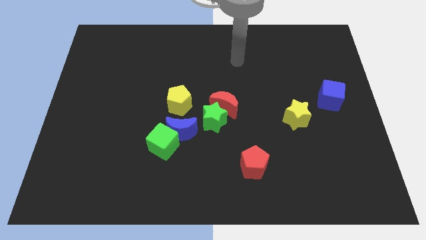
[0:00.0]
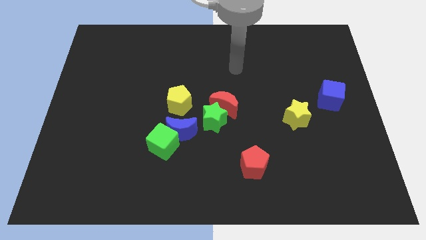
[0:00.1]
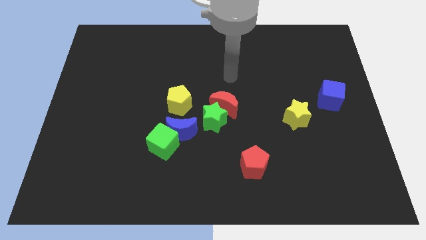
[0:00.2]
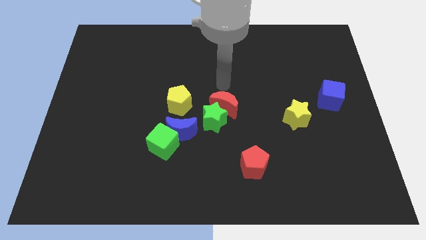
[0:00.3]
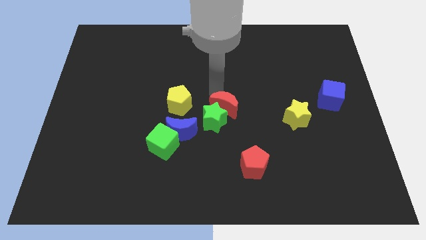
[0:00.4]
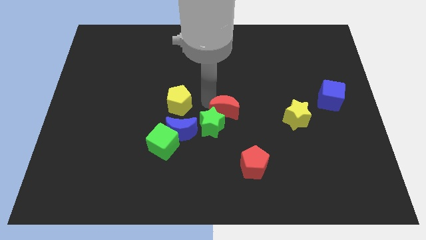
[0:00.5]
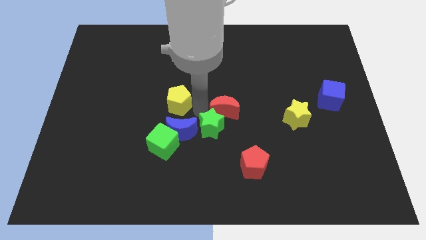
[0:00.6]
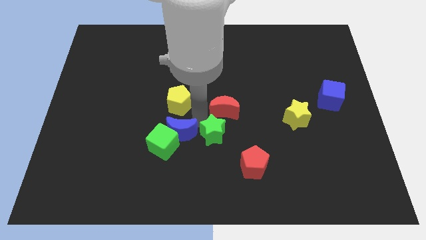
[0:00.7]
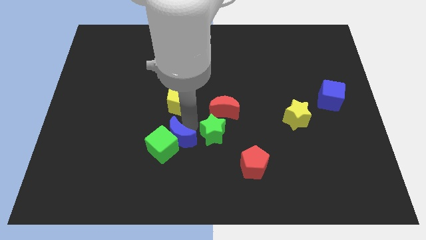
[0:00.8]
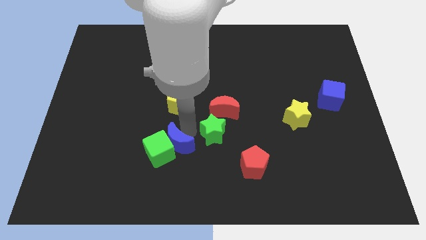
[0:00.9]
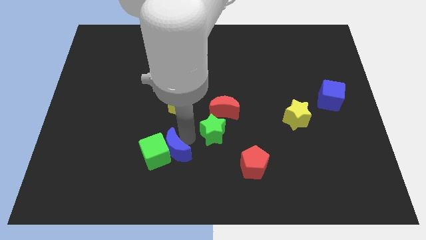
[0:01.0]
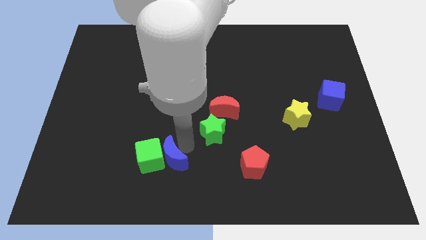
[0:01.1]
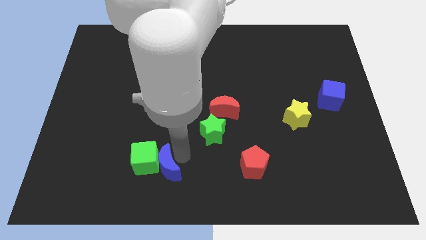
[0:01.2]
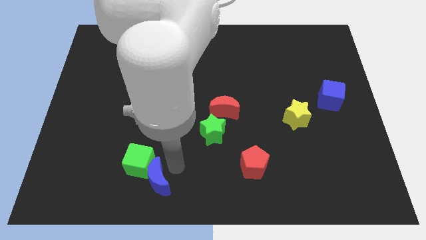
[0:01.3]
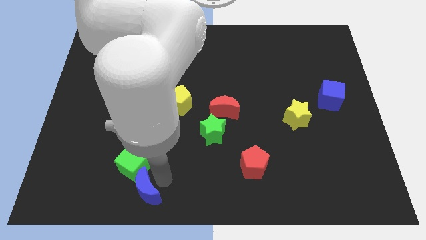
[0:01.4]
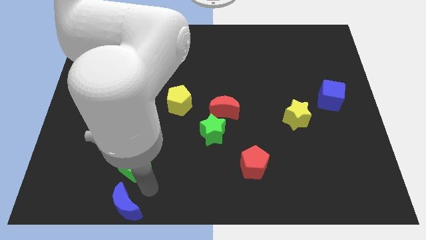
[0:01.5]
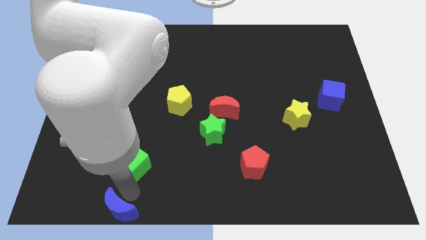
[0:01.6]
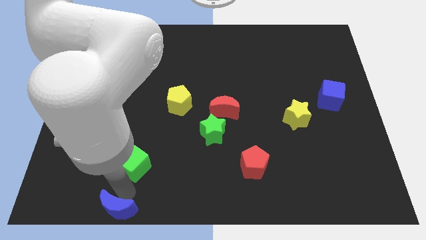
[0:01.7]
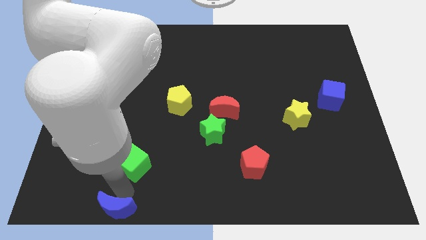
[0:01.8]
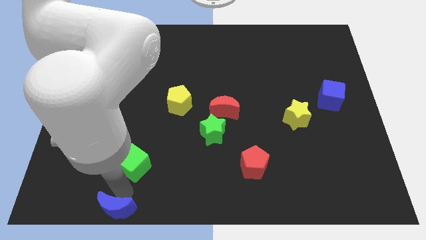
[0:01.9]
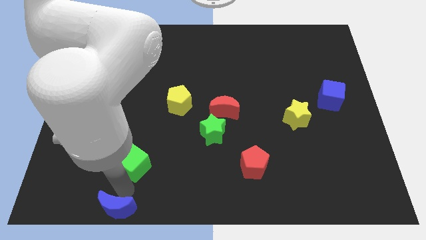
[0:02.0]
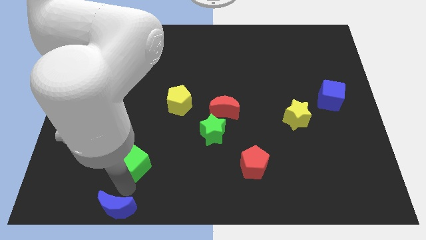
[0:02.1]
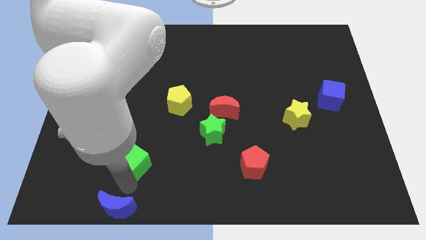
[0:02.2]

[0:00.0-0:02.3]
move the green cube away from the blue moon

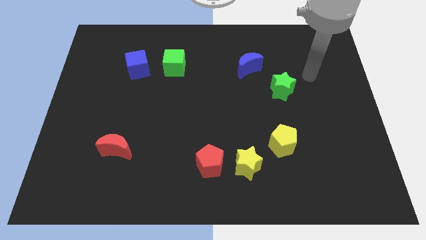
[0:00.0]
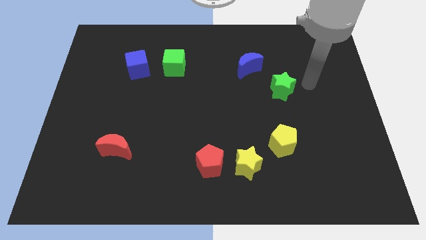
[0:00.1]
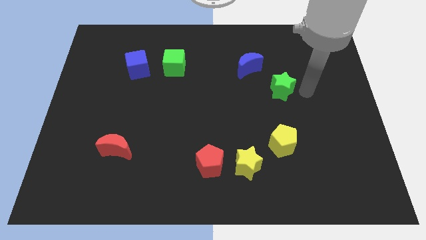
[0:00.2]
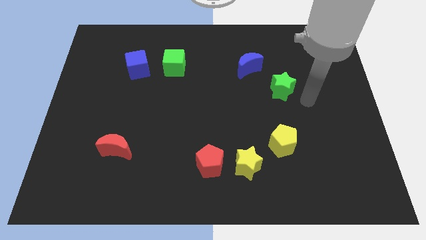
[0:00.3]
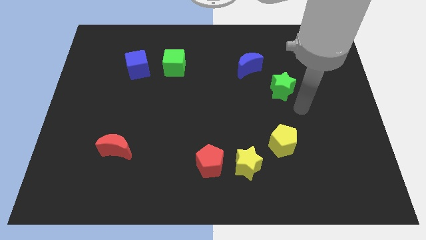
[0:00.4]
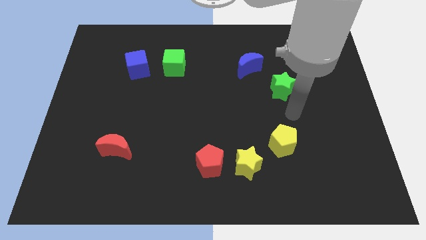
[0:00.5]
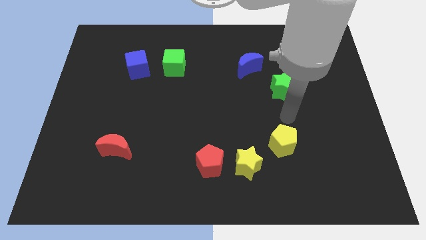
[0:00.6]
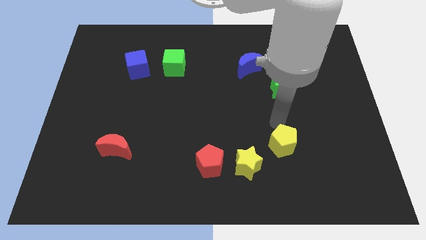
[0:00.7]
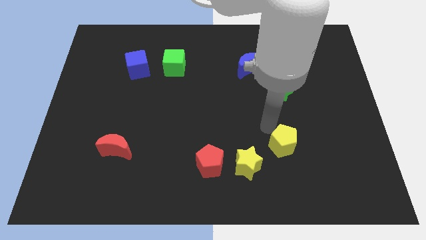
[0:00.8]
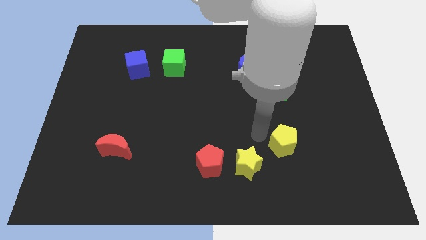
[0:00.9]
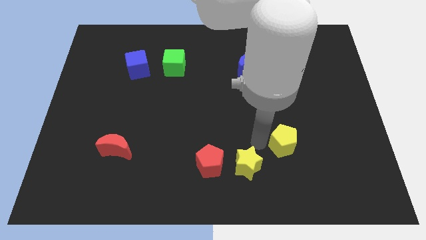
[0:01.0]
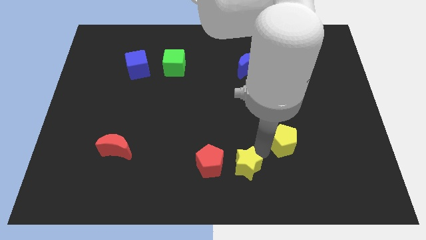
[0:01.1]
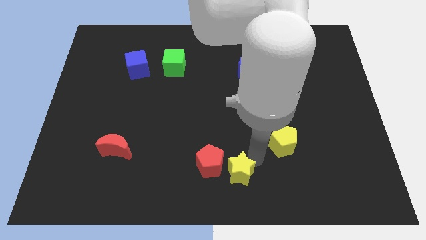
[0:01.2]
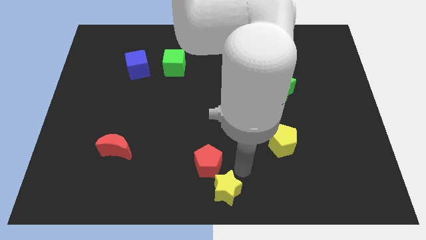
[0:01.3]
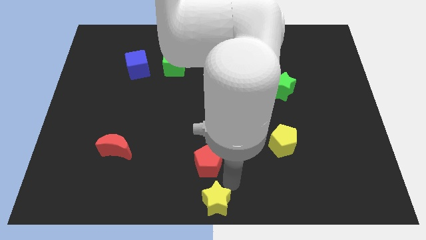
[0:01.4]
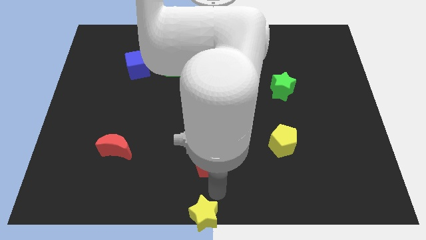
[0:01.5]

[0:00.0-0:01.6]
pull the red pentagon apart from the yellow star

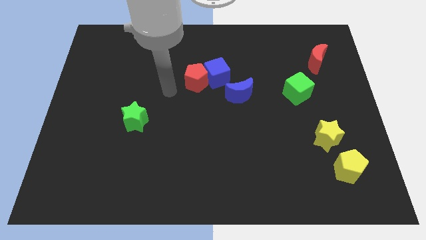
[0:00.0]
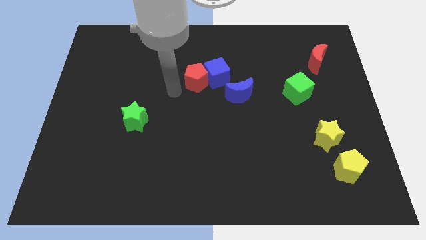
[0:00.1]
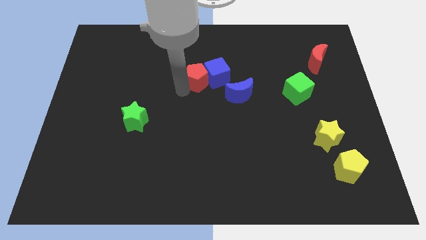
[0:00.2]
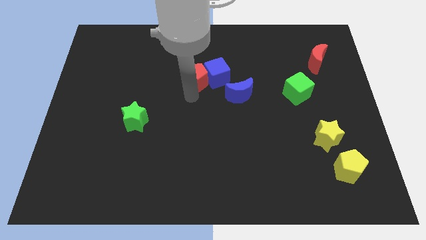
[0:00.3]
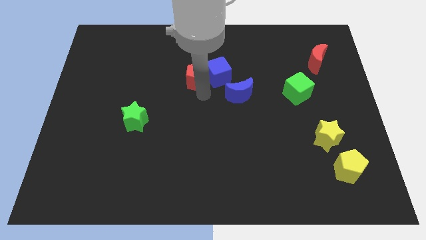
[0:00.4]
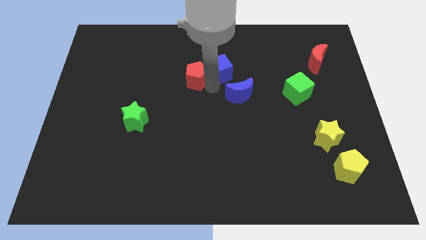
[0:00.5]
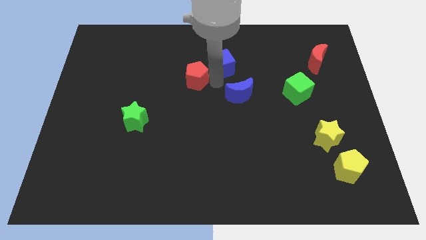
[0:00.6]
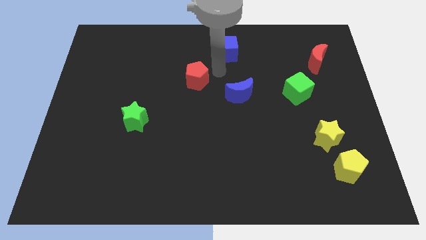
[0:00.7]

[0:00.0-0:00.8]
pull the red pentagon apart from the blue cube

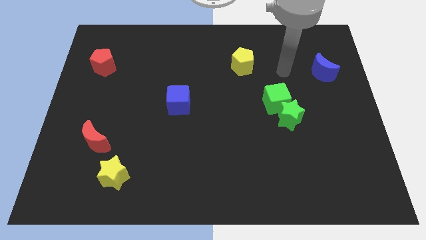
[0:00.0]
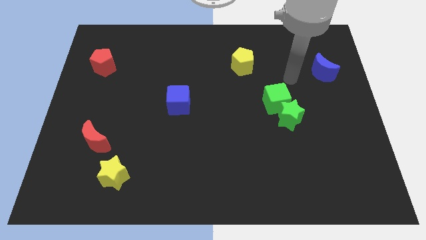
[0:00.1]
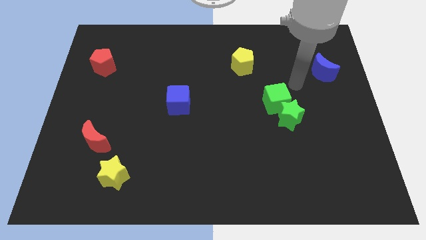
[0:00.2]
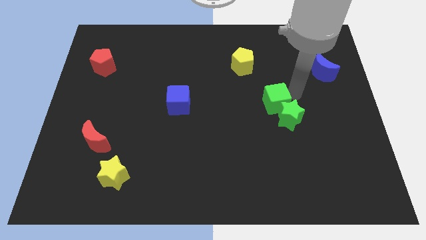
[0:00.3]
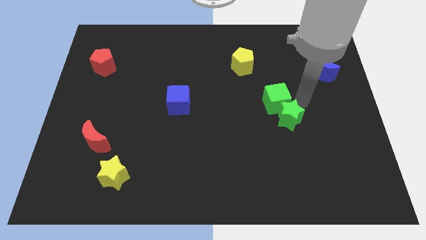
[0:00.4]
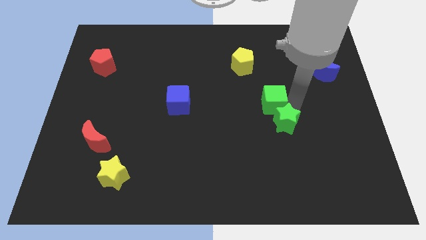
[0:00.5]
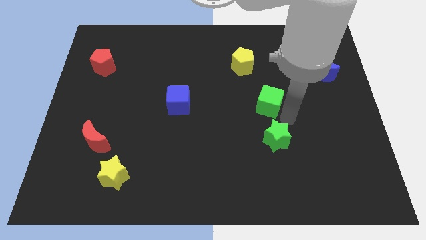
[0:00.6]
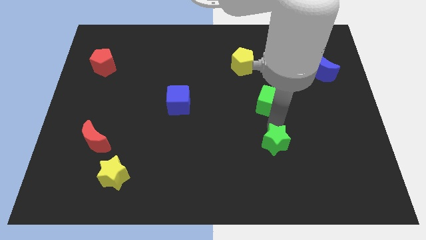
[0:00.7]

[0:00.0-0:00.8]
separate the green cube from the green star

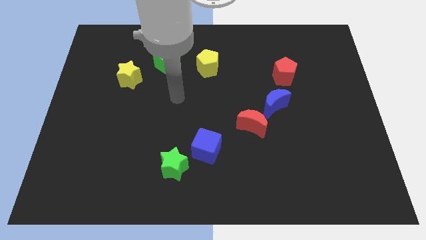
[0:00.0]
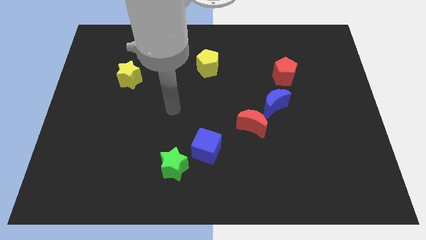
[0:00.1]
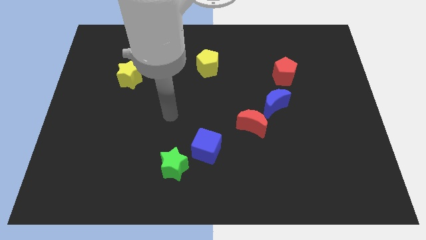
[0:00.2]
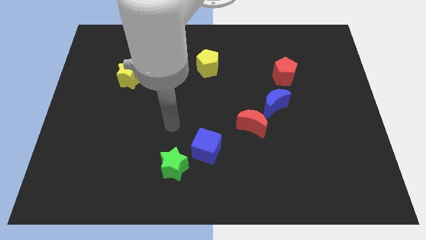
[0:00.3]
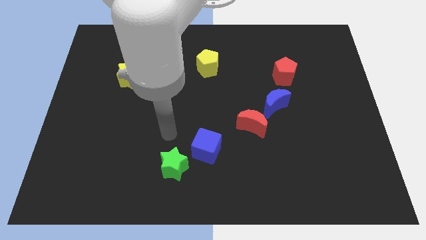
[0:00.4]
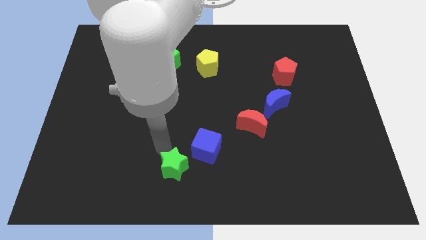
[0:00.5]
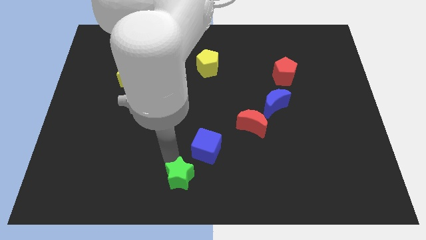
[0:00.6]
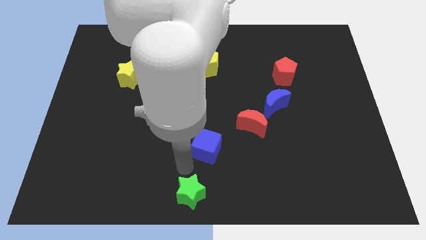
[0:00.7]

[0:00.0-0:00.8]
pull the blue cube apart from the green star

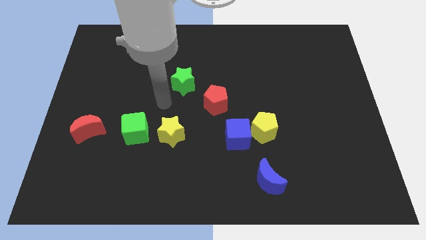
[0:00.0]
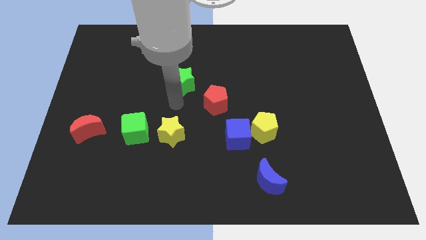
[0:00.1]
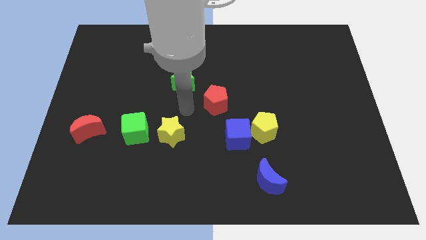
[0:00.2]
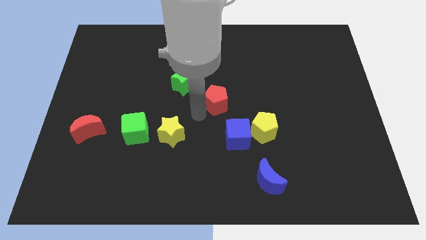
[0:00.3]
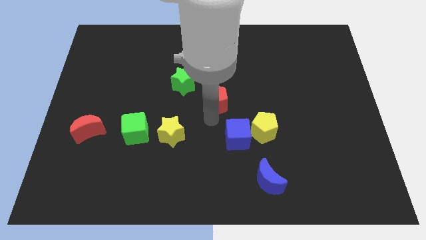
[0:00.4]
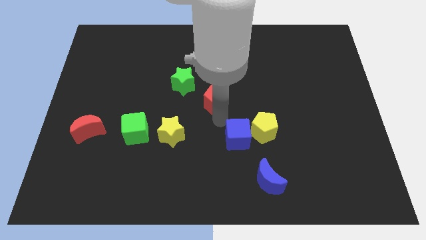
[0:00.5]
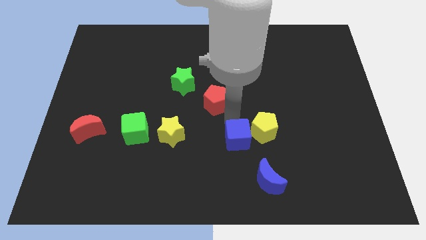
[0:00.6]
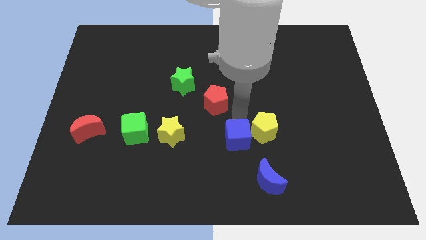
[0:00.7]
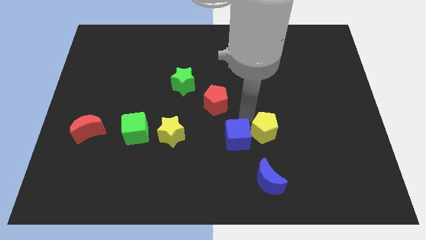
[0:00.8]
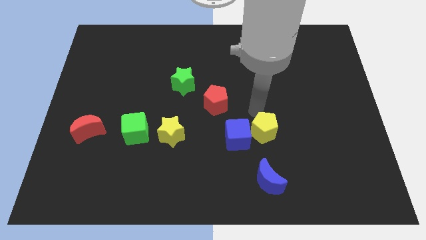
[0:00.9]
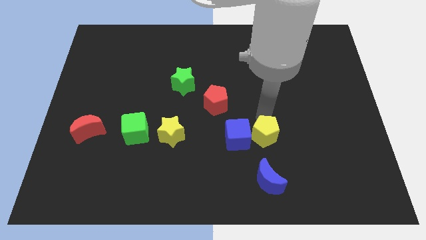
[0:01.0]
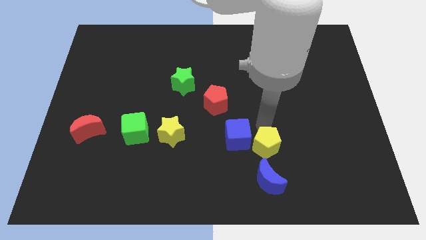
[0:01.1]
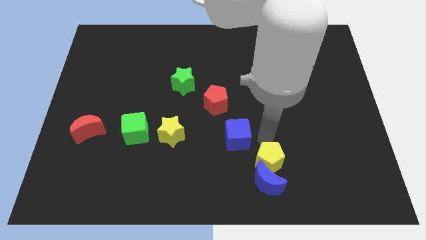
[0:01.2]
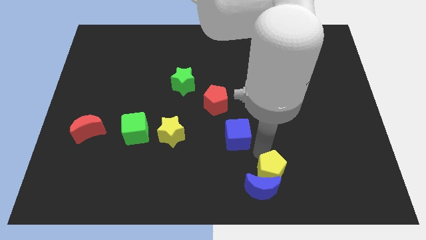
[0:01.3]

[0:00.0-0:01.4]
pull the blue cube apart from the yellow pentagon

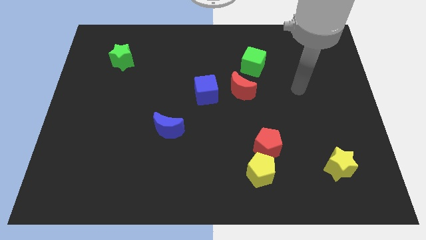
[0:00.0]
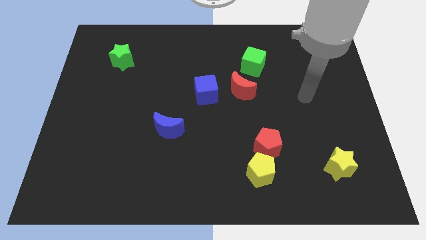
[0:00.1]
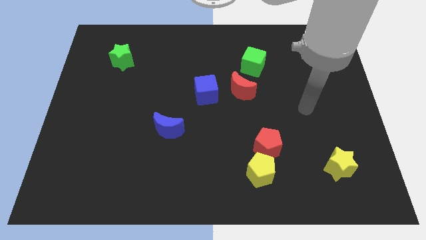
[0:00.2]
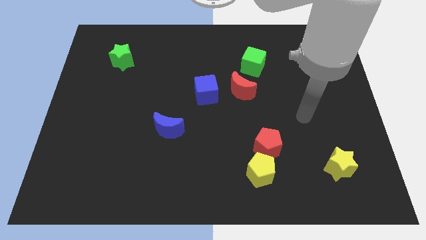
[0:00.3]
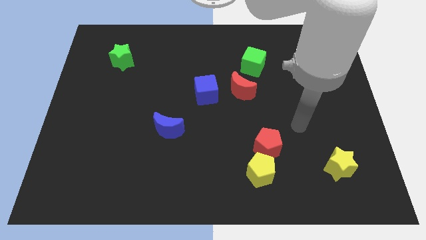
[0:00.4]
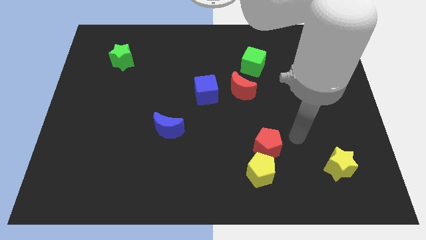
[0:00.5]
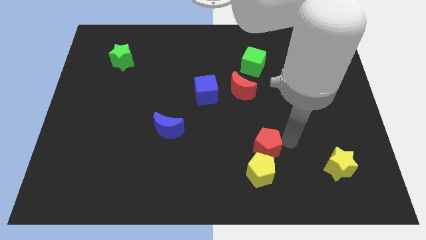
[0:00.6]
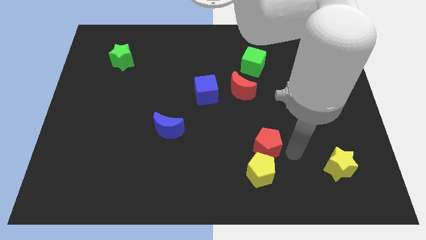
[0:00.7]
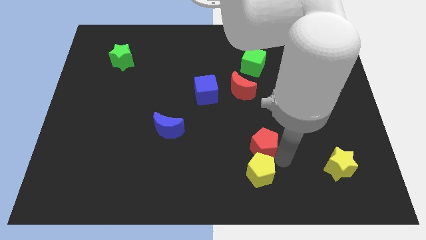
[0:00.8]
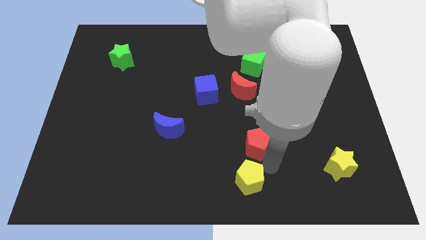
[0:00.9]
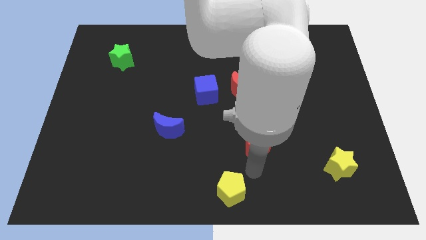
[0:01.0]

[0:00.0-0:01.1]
pull the red pentagon apart from the yellow pentagon

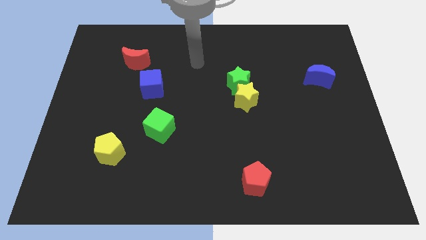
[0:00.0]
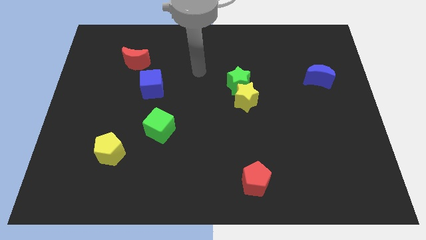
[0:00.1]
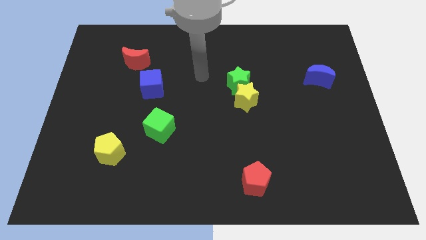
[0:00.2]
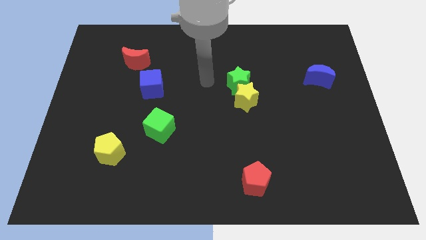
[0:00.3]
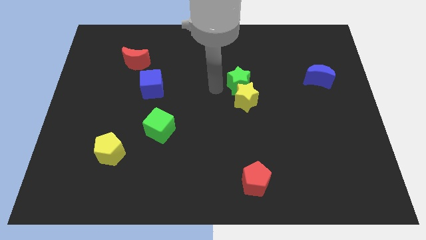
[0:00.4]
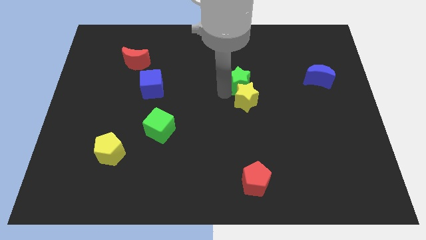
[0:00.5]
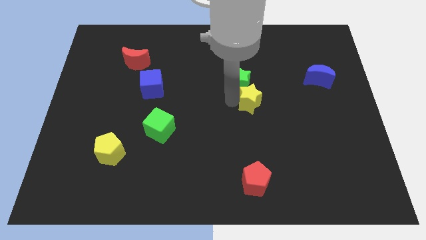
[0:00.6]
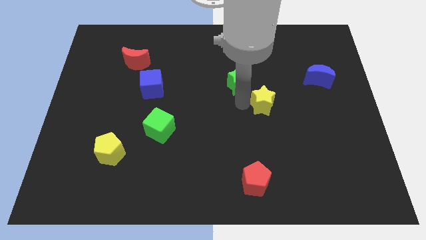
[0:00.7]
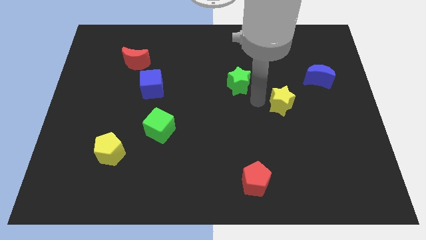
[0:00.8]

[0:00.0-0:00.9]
move the green star away from the yellow star
